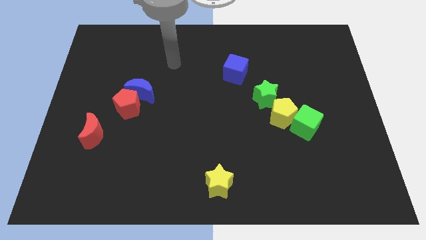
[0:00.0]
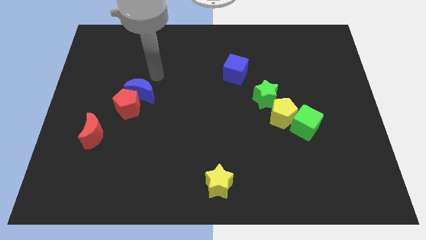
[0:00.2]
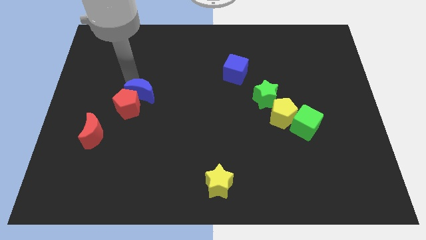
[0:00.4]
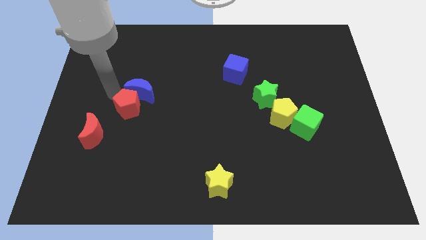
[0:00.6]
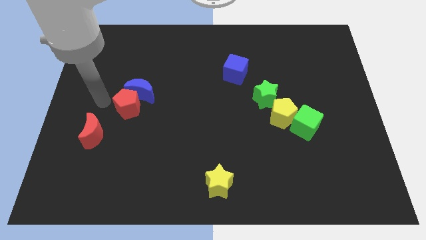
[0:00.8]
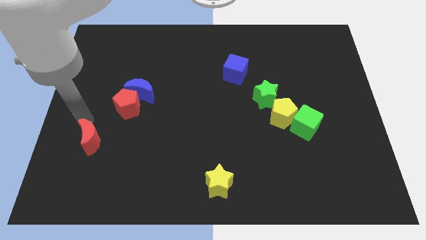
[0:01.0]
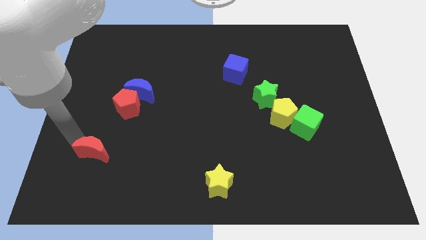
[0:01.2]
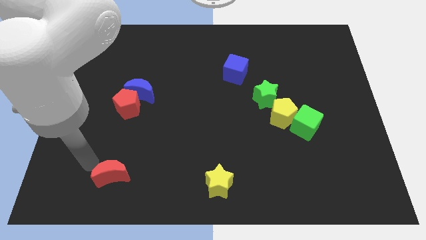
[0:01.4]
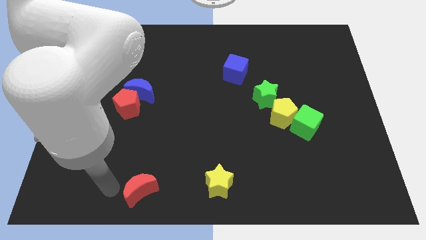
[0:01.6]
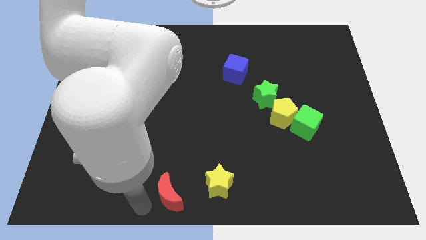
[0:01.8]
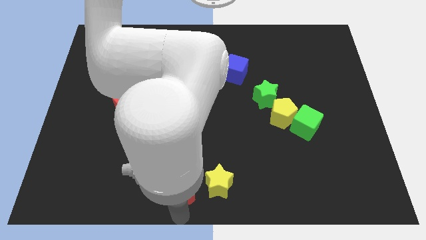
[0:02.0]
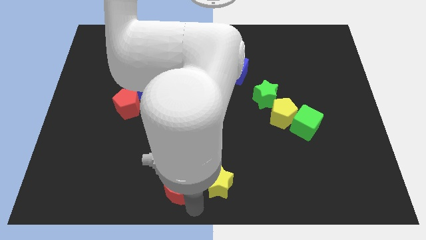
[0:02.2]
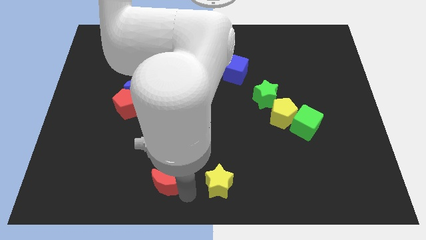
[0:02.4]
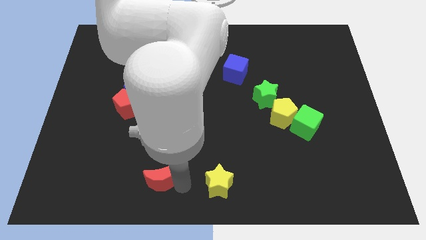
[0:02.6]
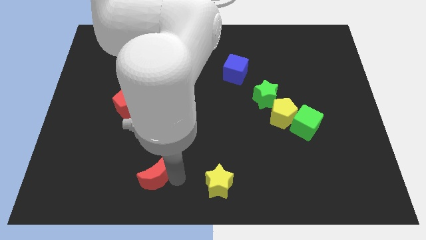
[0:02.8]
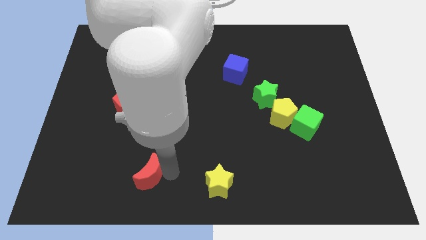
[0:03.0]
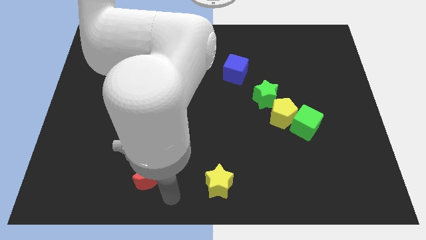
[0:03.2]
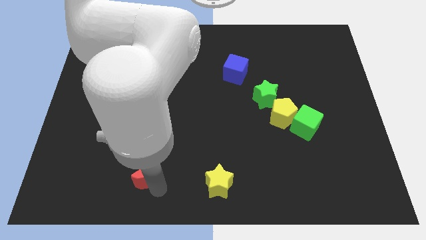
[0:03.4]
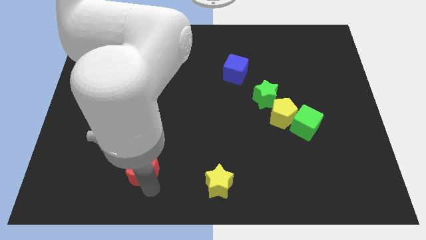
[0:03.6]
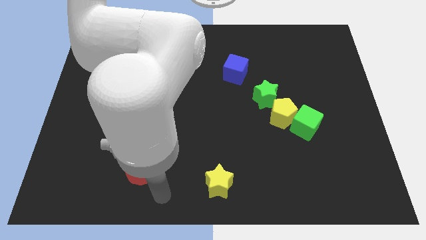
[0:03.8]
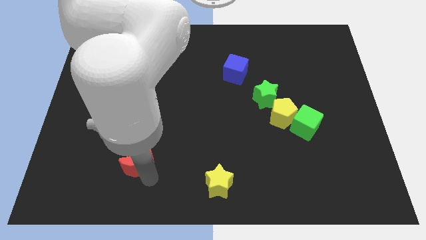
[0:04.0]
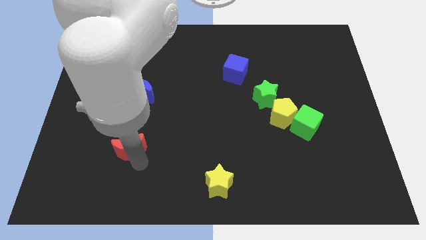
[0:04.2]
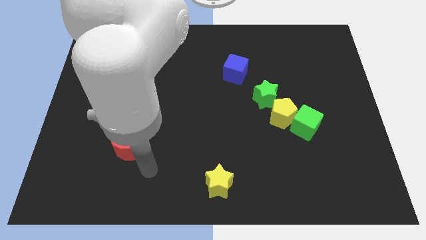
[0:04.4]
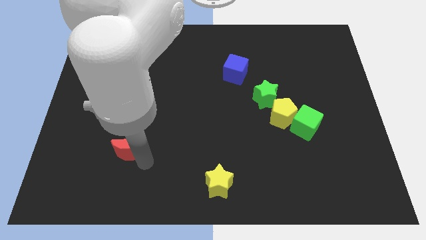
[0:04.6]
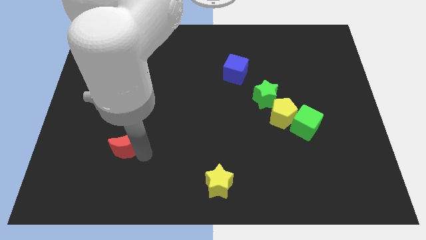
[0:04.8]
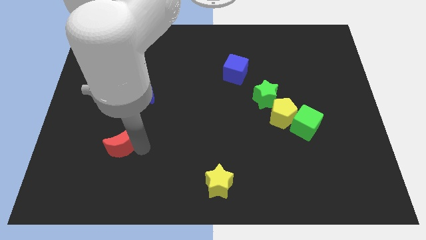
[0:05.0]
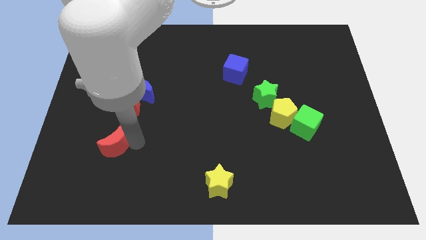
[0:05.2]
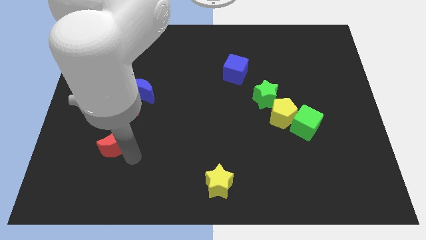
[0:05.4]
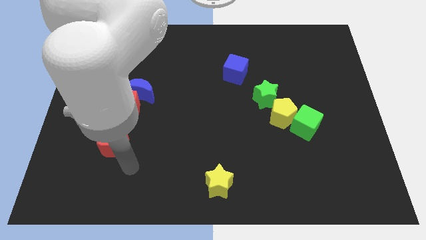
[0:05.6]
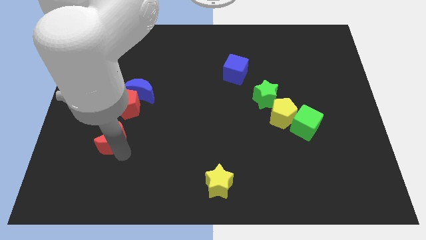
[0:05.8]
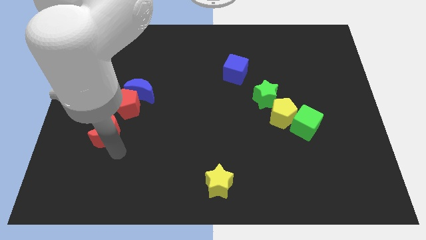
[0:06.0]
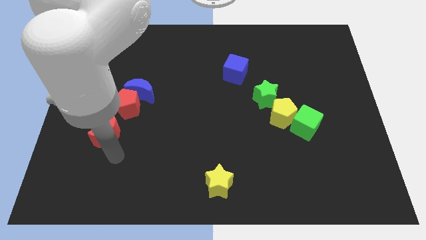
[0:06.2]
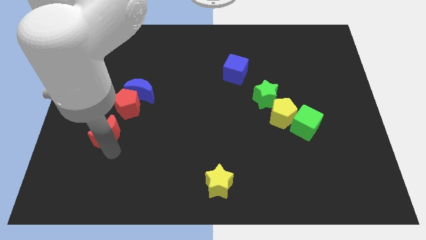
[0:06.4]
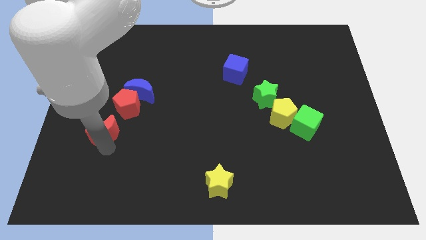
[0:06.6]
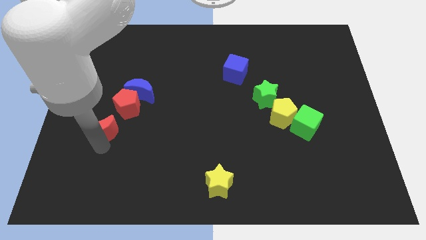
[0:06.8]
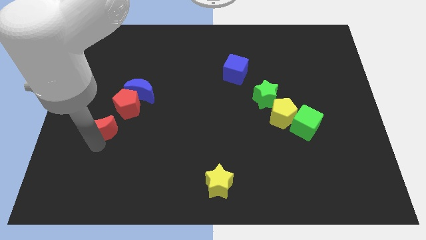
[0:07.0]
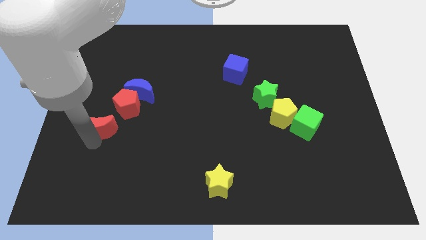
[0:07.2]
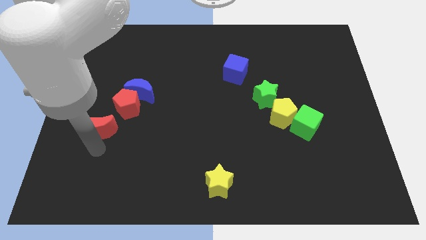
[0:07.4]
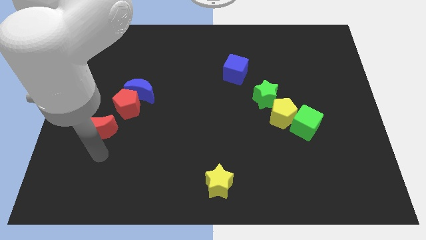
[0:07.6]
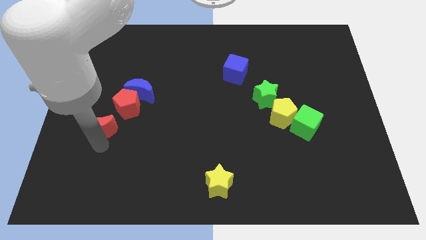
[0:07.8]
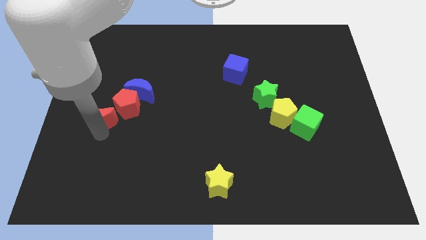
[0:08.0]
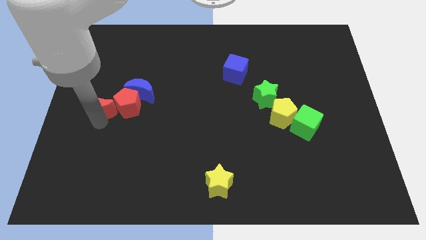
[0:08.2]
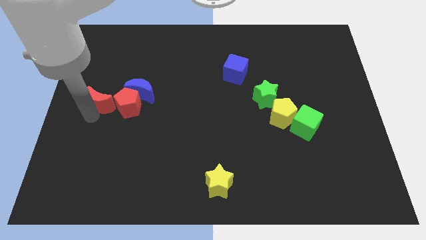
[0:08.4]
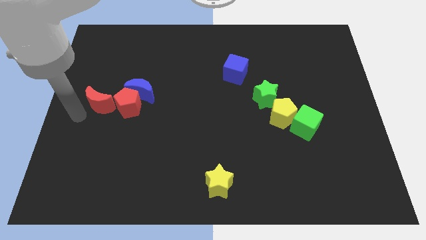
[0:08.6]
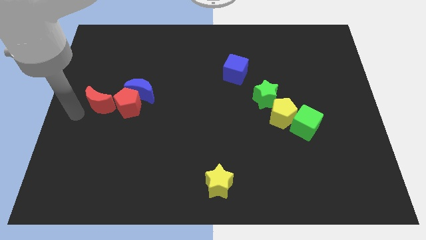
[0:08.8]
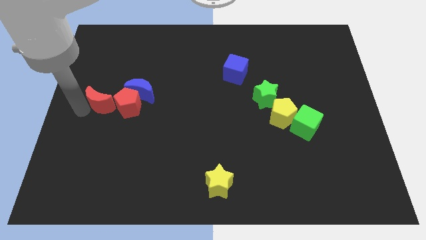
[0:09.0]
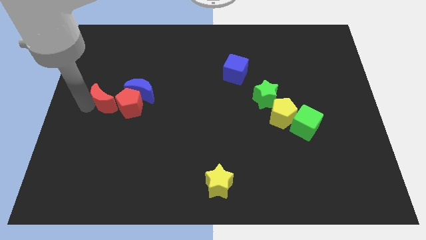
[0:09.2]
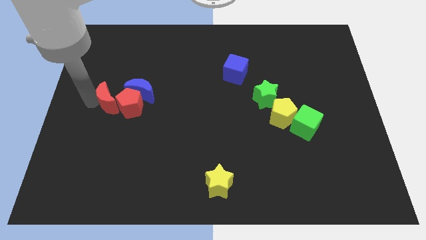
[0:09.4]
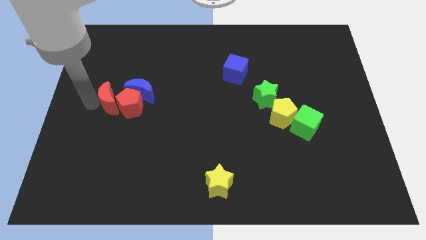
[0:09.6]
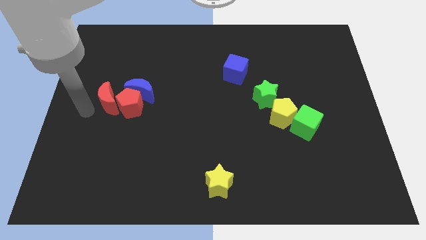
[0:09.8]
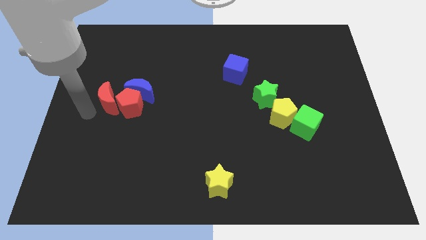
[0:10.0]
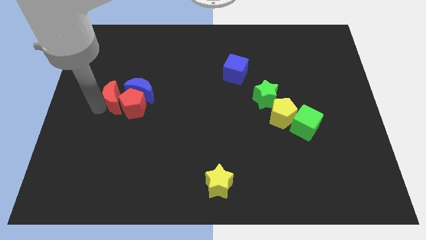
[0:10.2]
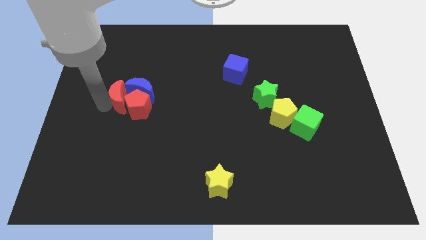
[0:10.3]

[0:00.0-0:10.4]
move the red moon towards the blue moon

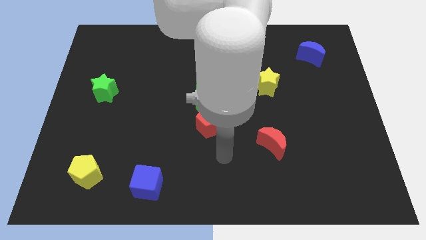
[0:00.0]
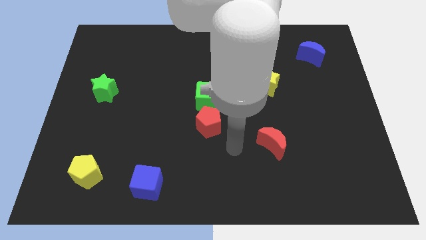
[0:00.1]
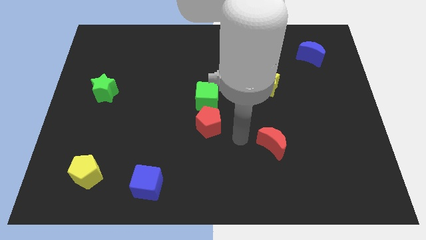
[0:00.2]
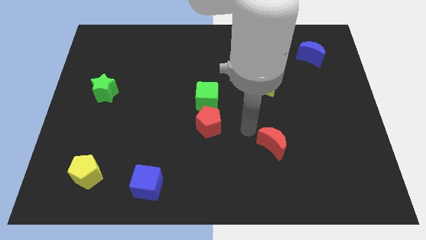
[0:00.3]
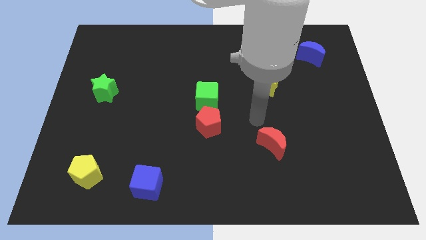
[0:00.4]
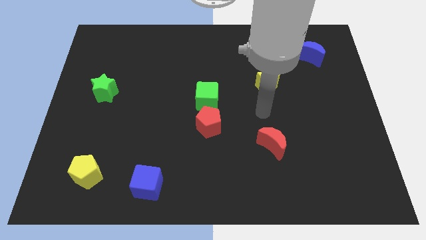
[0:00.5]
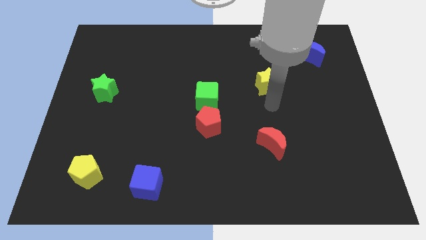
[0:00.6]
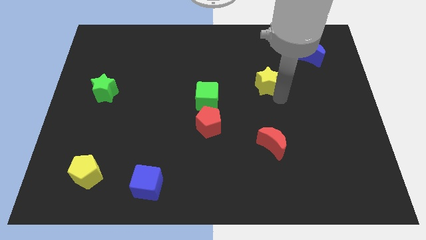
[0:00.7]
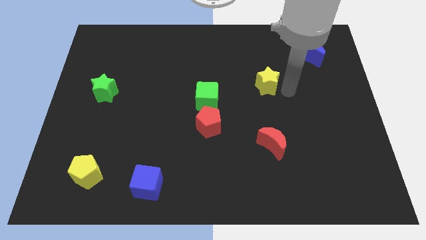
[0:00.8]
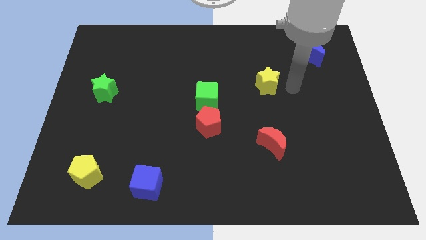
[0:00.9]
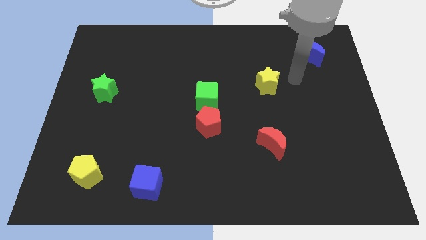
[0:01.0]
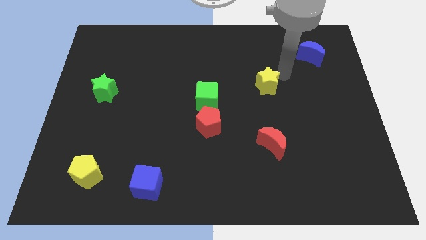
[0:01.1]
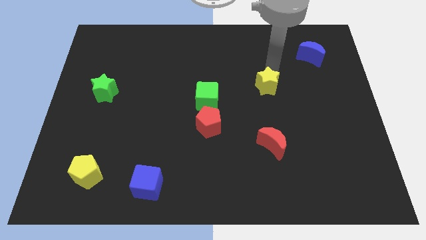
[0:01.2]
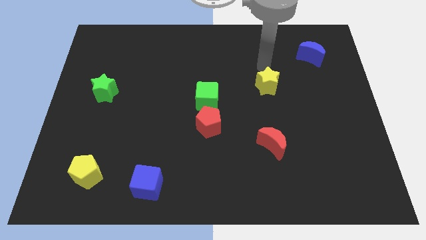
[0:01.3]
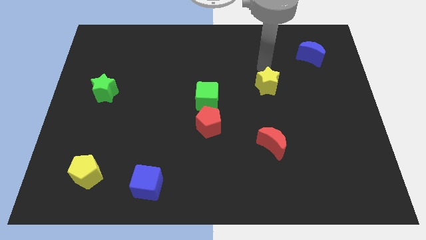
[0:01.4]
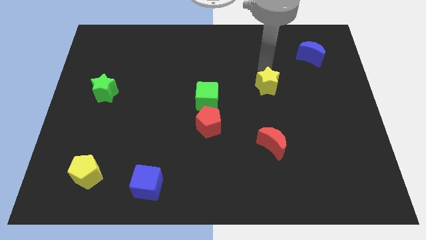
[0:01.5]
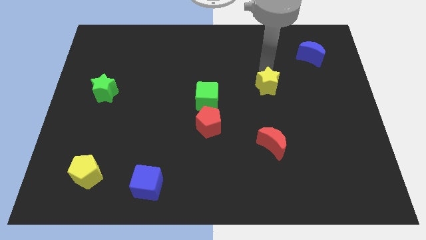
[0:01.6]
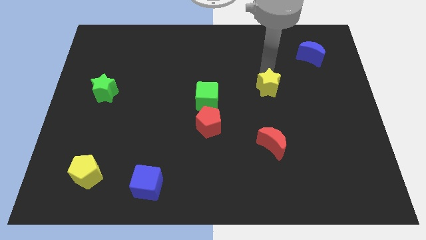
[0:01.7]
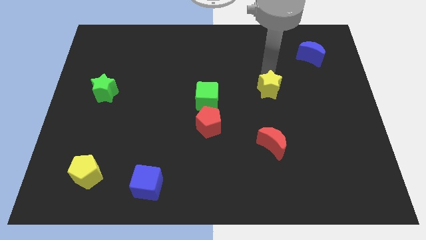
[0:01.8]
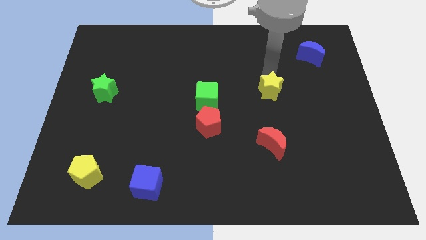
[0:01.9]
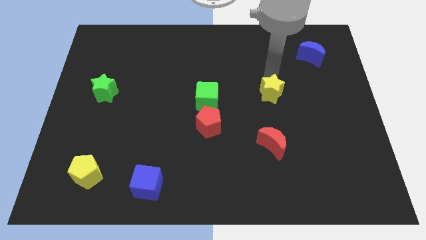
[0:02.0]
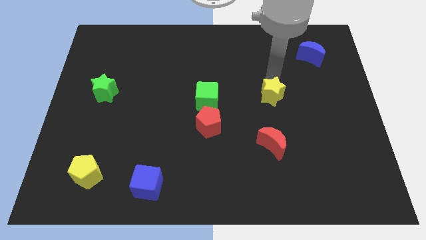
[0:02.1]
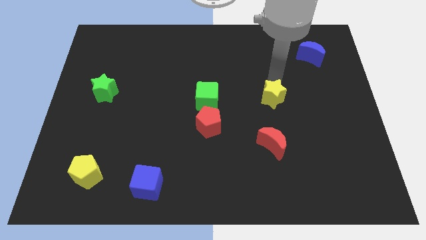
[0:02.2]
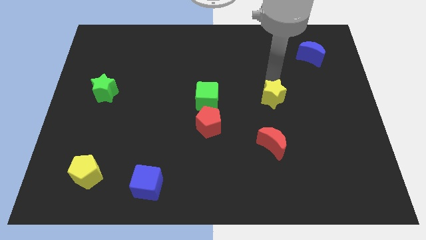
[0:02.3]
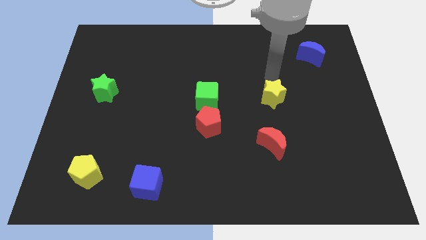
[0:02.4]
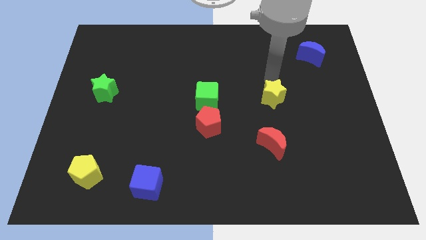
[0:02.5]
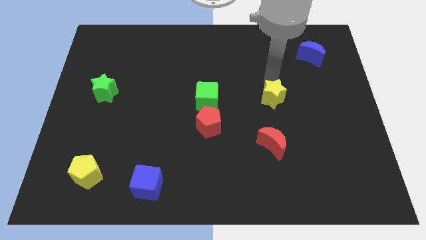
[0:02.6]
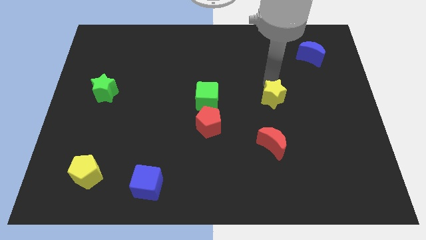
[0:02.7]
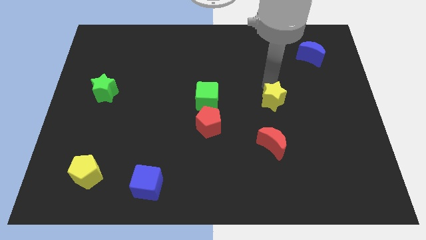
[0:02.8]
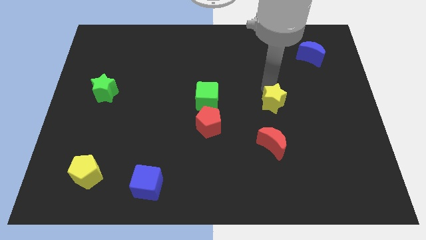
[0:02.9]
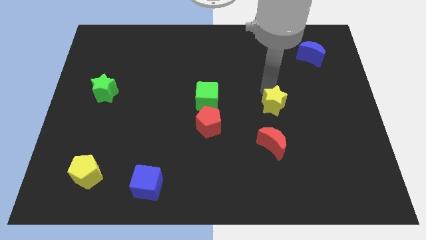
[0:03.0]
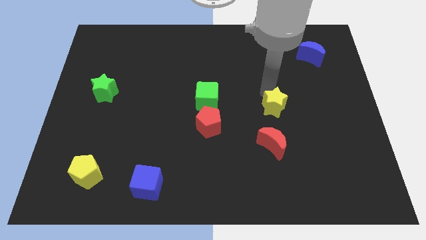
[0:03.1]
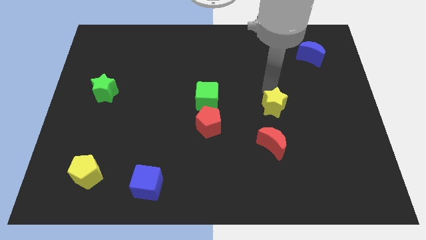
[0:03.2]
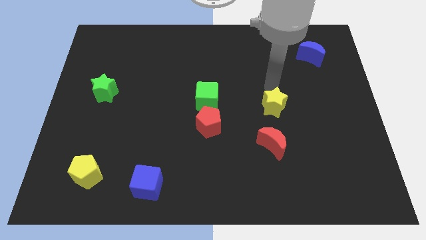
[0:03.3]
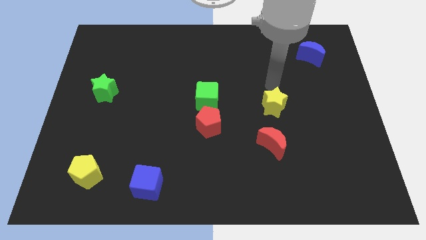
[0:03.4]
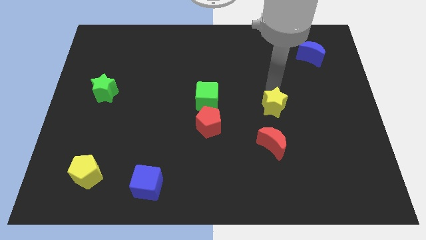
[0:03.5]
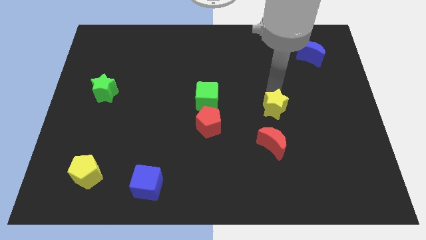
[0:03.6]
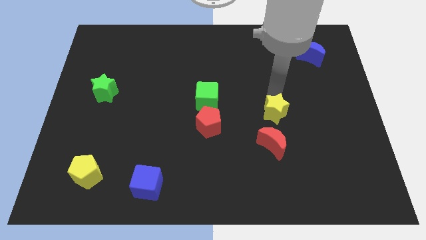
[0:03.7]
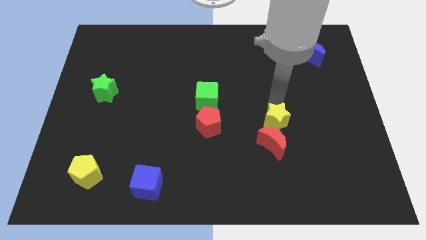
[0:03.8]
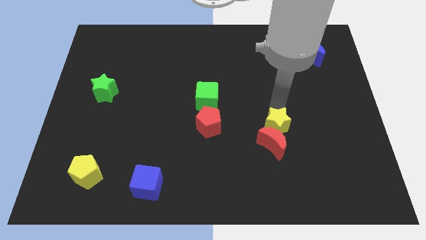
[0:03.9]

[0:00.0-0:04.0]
slide the yellow star to the red moon
